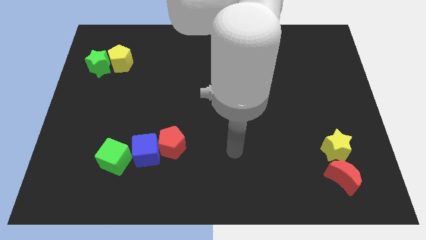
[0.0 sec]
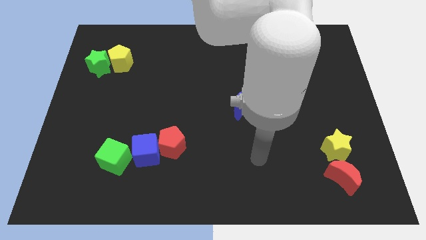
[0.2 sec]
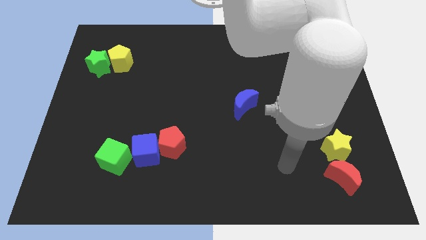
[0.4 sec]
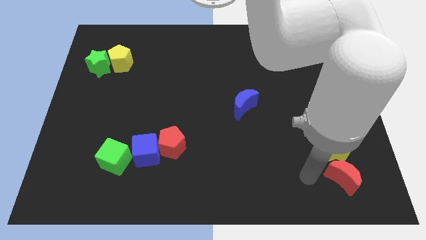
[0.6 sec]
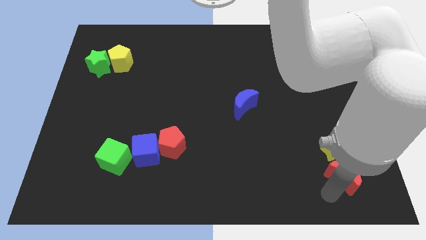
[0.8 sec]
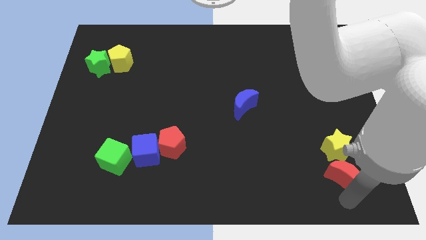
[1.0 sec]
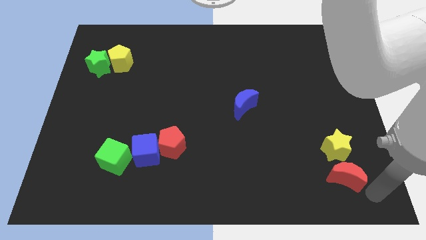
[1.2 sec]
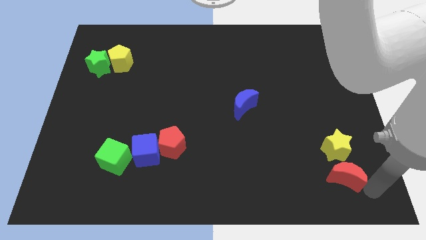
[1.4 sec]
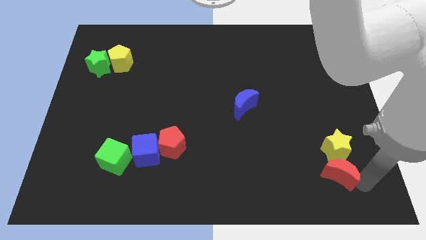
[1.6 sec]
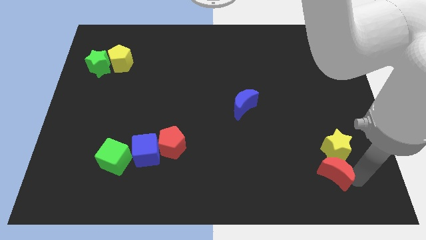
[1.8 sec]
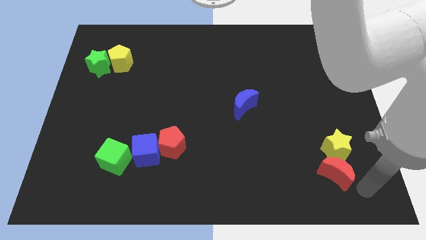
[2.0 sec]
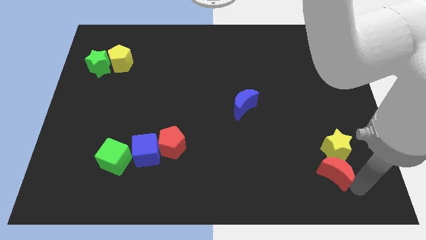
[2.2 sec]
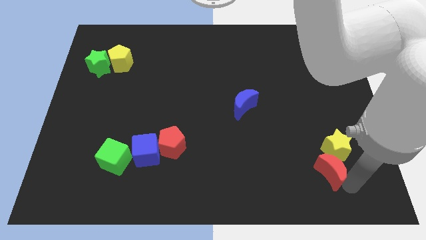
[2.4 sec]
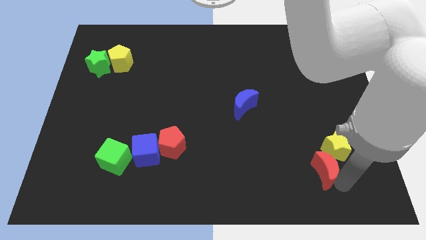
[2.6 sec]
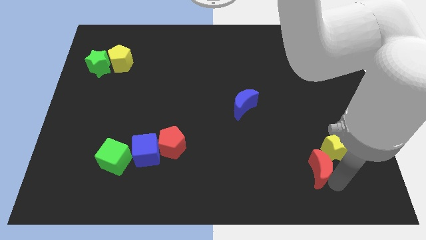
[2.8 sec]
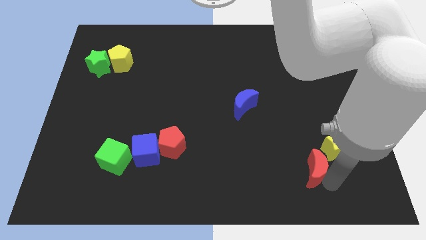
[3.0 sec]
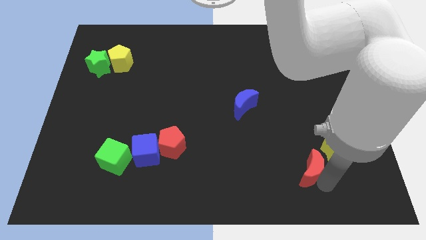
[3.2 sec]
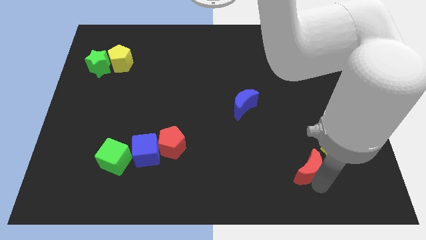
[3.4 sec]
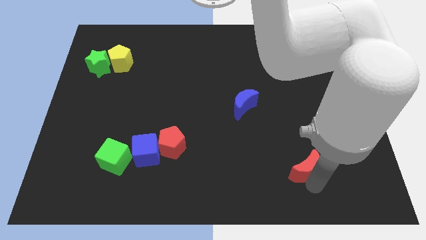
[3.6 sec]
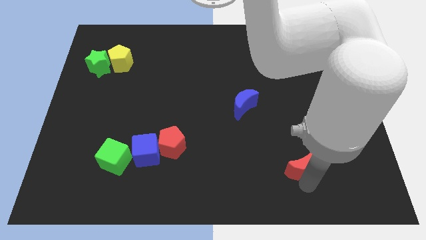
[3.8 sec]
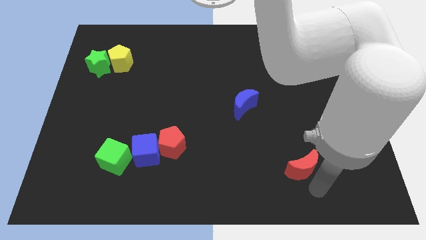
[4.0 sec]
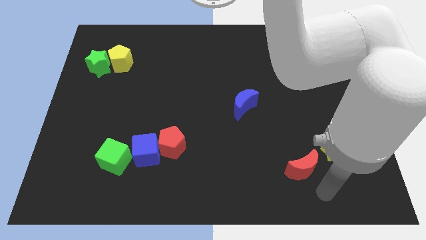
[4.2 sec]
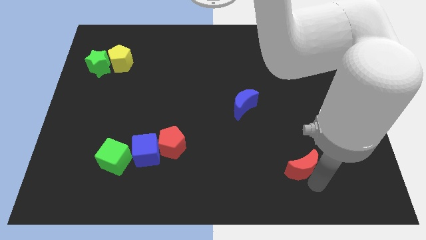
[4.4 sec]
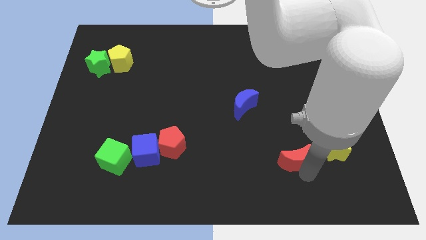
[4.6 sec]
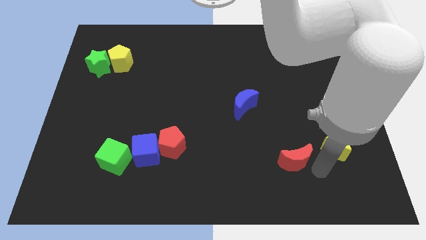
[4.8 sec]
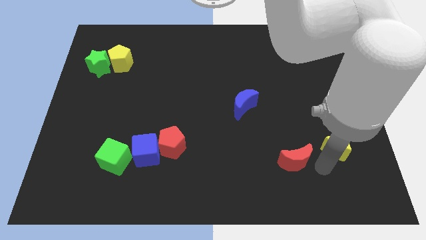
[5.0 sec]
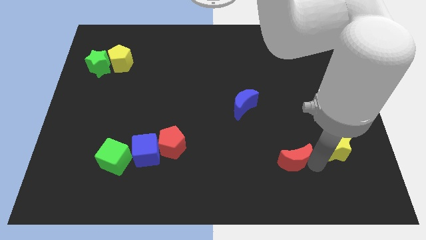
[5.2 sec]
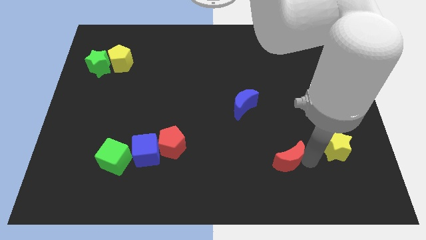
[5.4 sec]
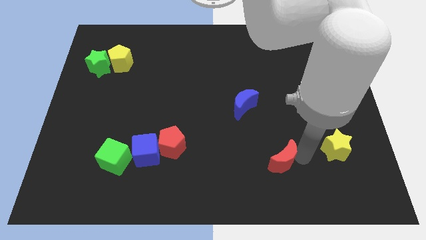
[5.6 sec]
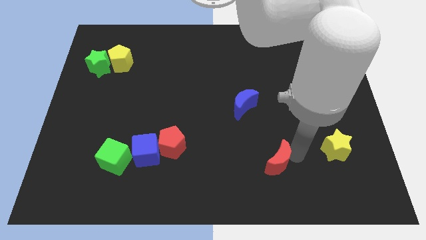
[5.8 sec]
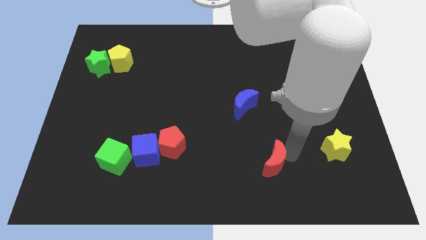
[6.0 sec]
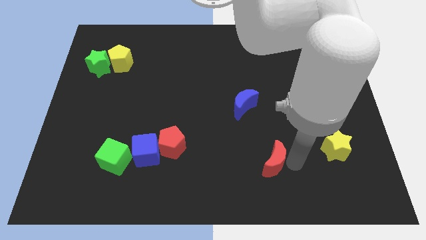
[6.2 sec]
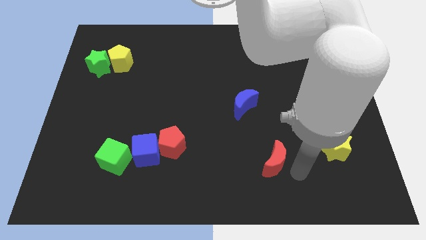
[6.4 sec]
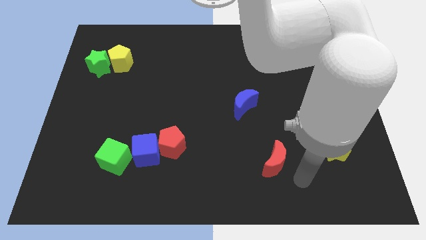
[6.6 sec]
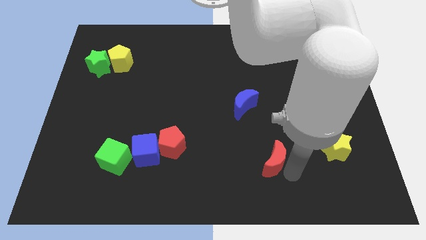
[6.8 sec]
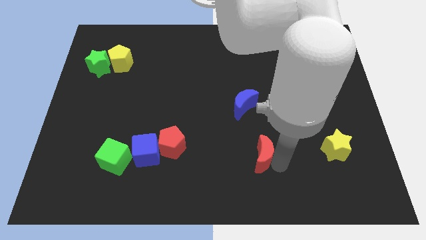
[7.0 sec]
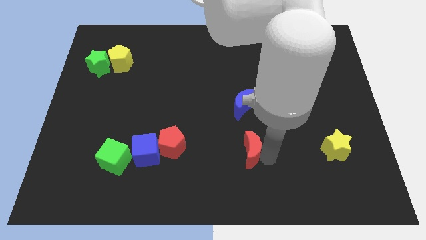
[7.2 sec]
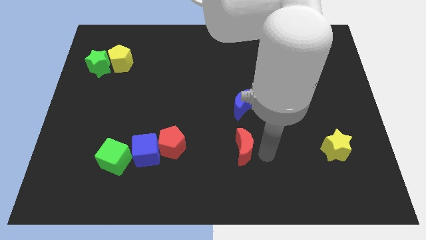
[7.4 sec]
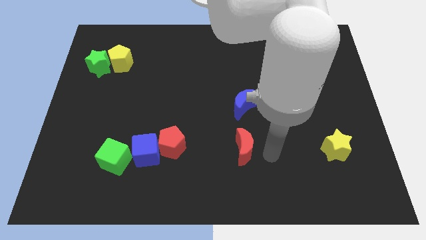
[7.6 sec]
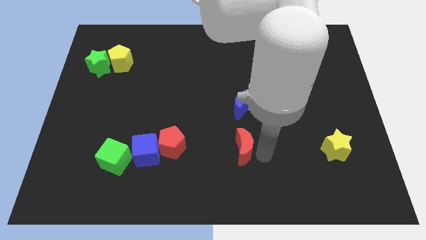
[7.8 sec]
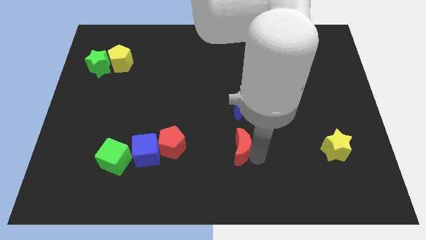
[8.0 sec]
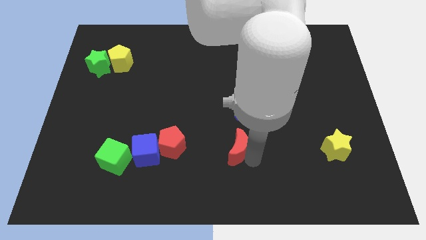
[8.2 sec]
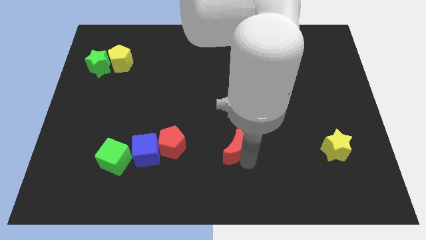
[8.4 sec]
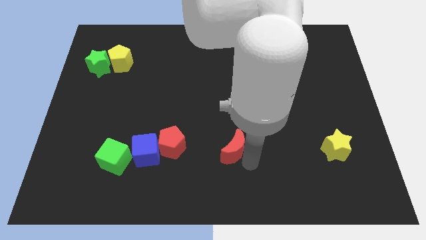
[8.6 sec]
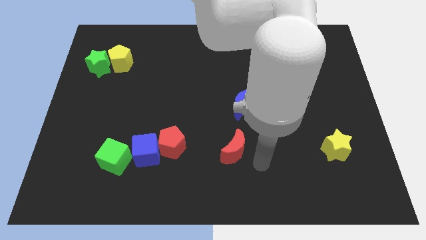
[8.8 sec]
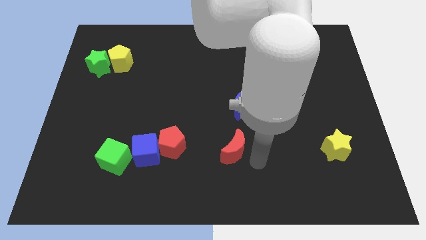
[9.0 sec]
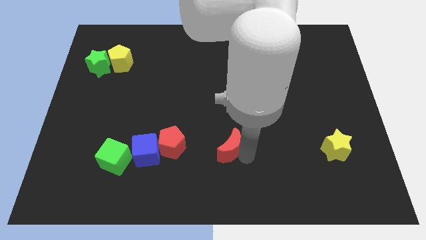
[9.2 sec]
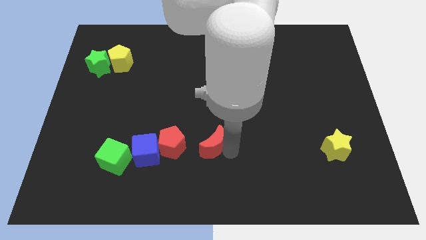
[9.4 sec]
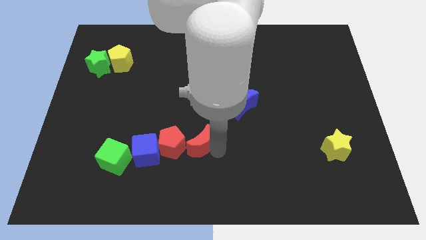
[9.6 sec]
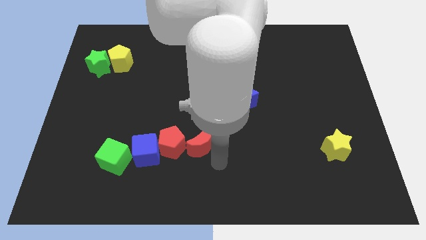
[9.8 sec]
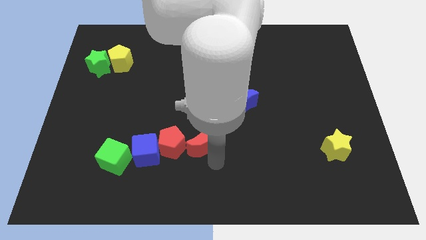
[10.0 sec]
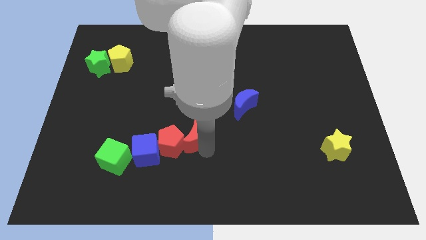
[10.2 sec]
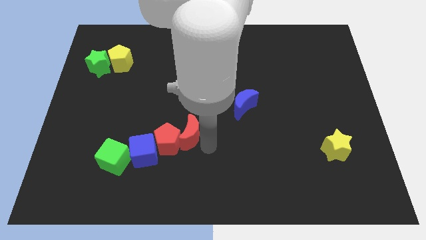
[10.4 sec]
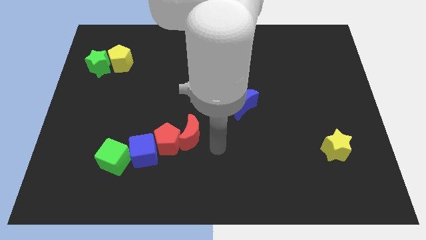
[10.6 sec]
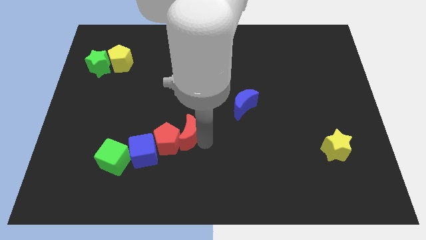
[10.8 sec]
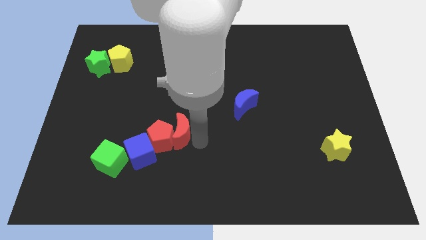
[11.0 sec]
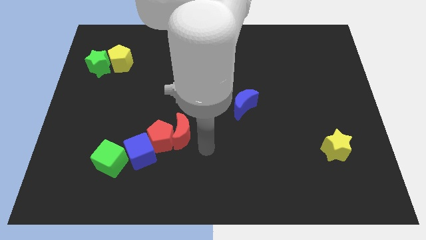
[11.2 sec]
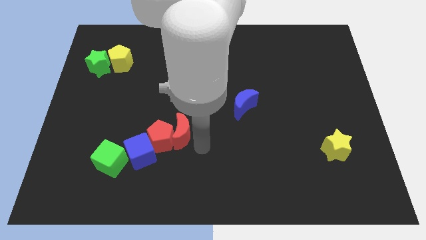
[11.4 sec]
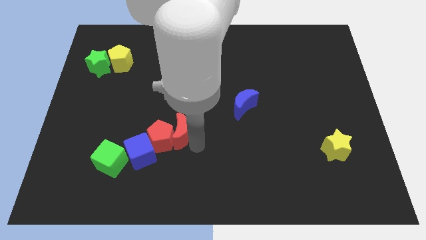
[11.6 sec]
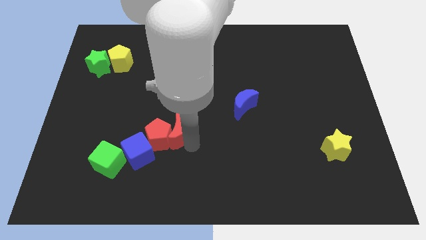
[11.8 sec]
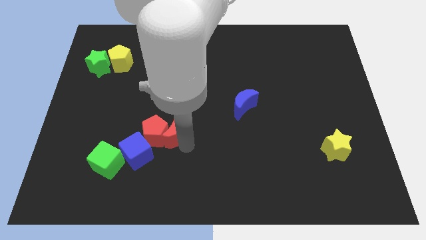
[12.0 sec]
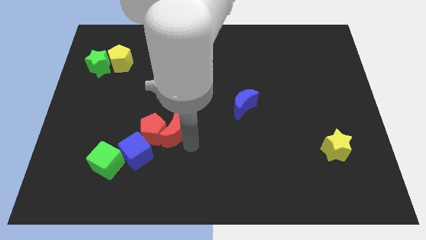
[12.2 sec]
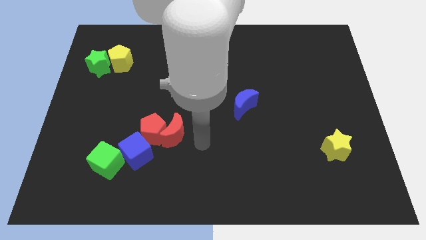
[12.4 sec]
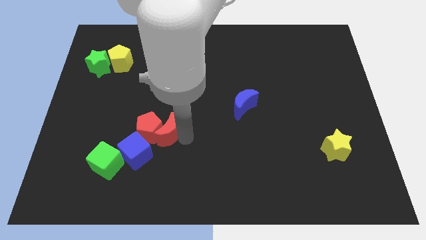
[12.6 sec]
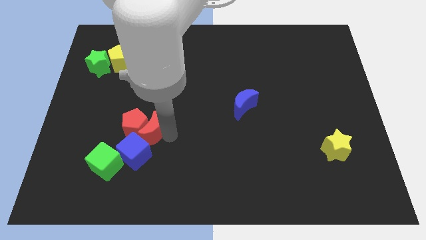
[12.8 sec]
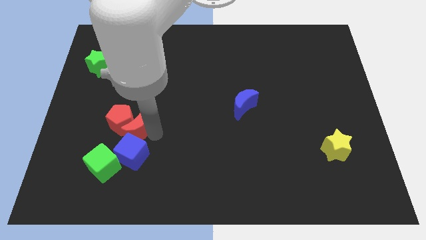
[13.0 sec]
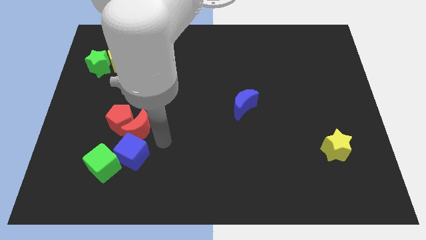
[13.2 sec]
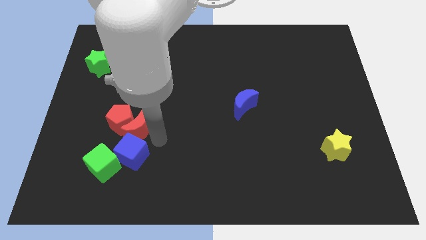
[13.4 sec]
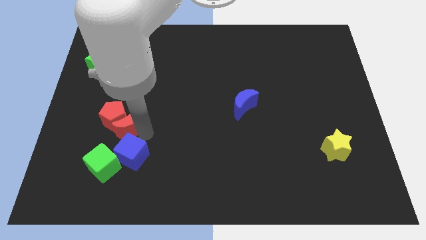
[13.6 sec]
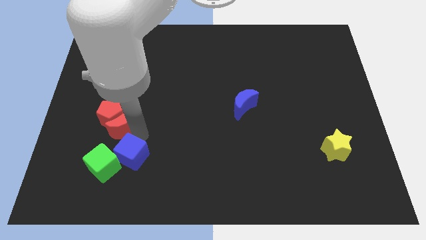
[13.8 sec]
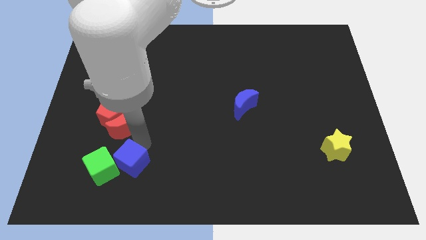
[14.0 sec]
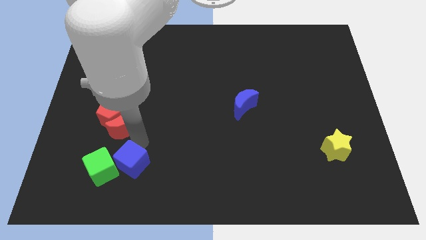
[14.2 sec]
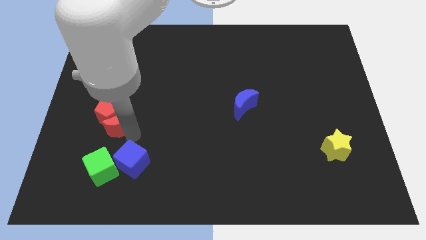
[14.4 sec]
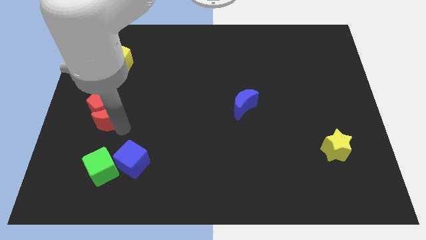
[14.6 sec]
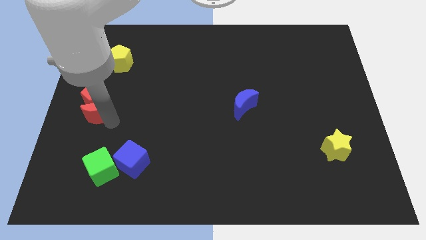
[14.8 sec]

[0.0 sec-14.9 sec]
move the red moon to the left side
